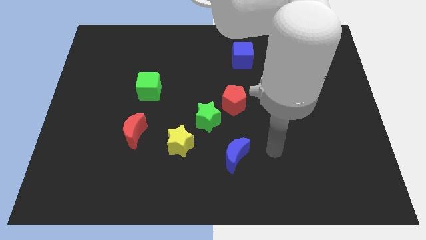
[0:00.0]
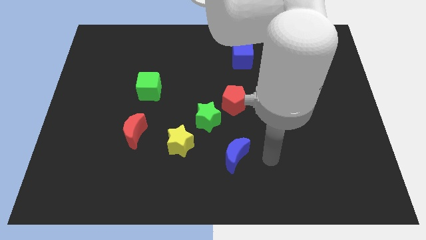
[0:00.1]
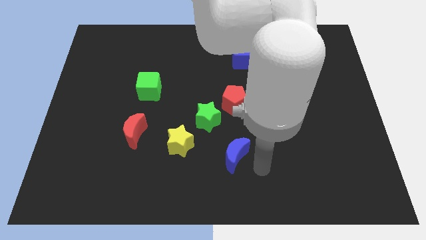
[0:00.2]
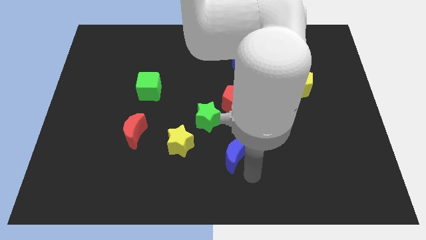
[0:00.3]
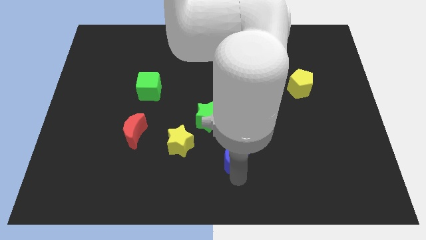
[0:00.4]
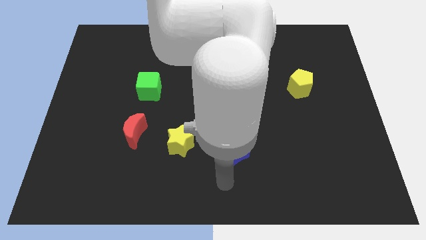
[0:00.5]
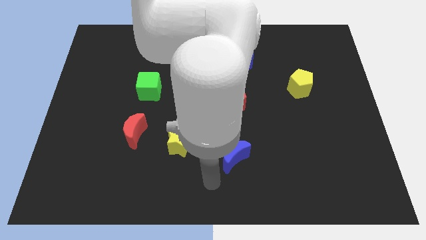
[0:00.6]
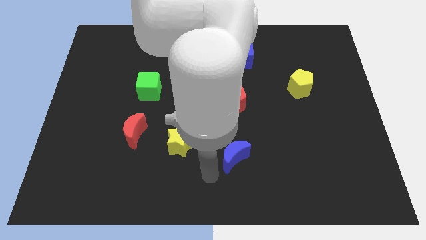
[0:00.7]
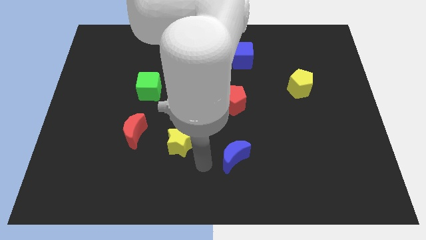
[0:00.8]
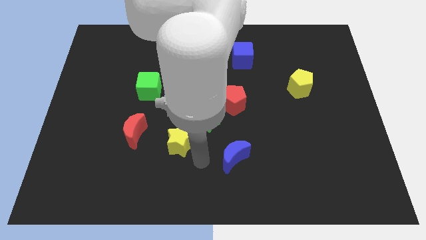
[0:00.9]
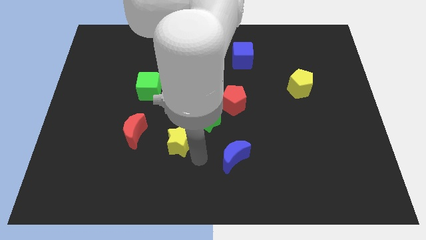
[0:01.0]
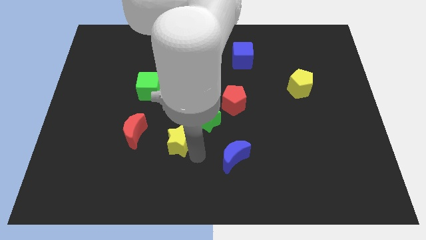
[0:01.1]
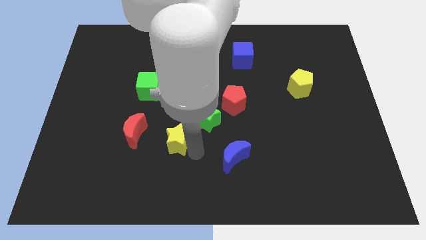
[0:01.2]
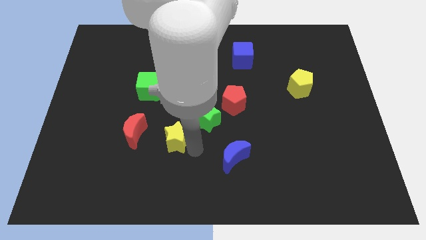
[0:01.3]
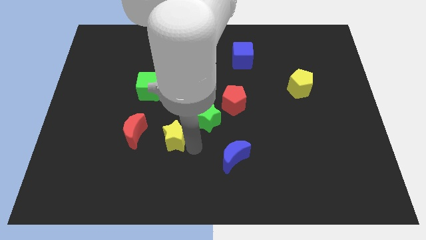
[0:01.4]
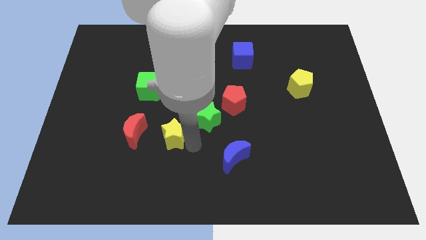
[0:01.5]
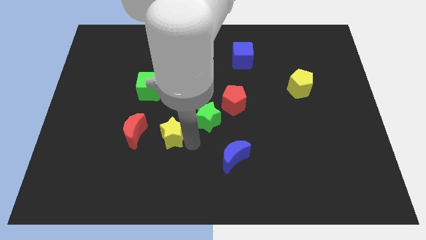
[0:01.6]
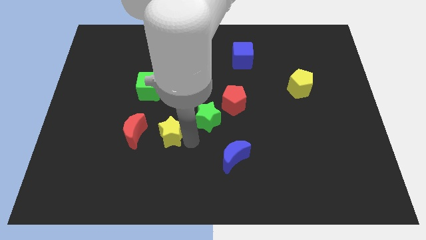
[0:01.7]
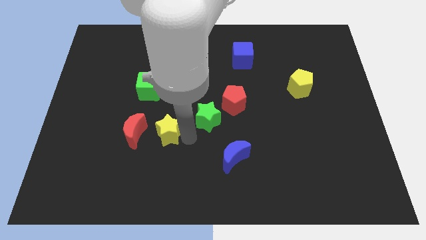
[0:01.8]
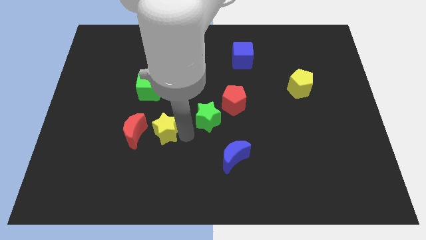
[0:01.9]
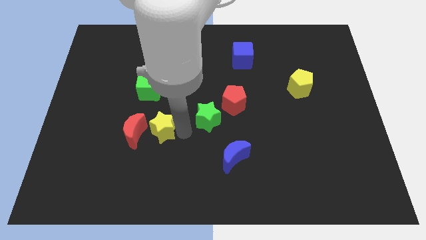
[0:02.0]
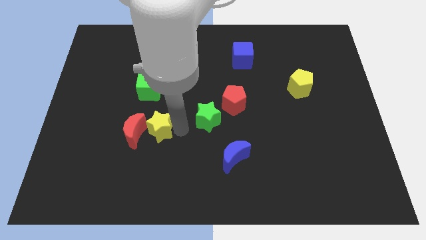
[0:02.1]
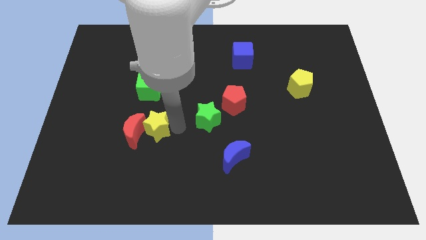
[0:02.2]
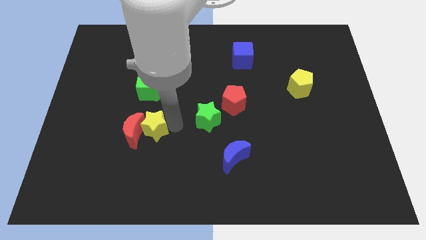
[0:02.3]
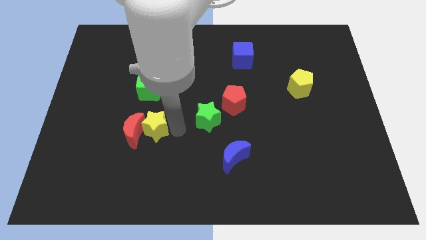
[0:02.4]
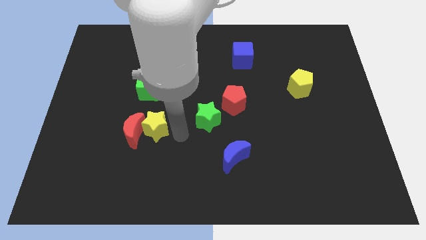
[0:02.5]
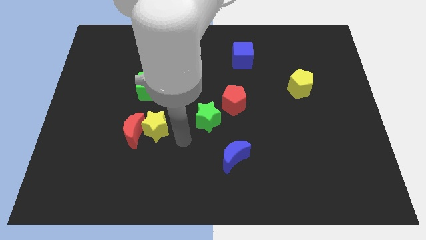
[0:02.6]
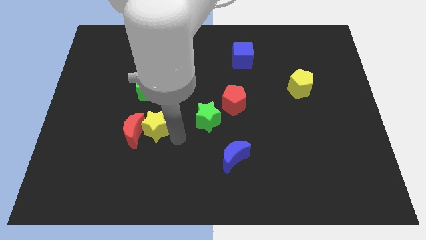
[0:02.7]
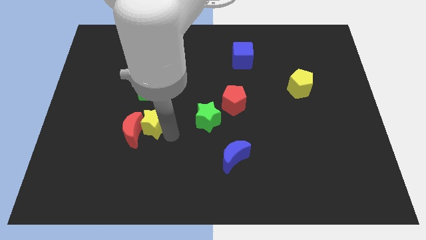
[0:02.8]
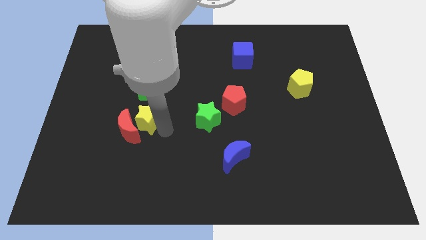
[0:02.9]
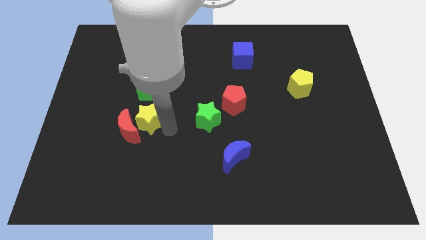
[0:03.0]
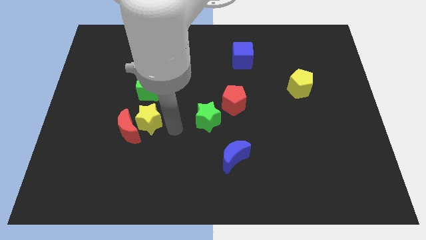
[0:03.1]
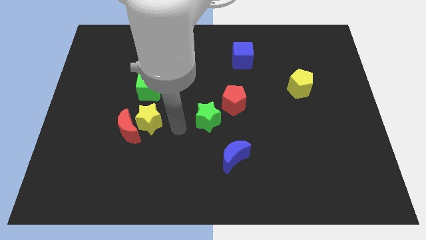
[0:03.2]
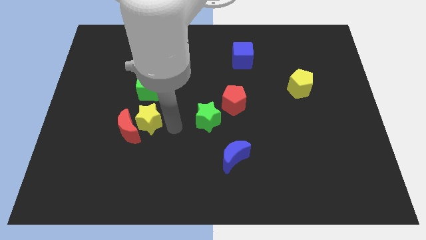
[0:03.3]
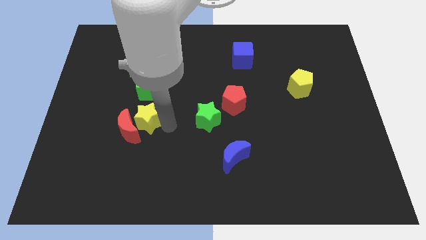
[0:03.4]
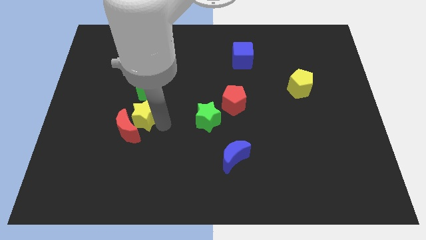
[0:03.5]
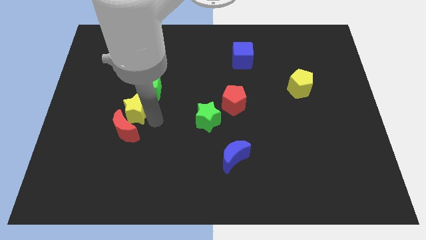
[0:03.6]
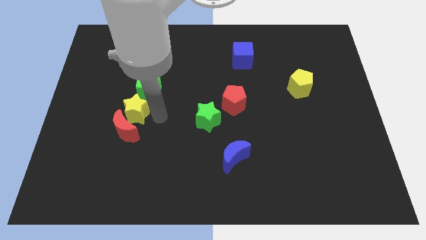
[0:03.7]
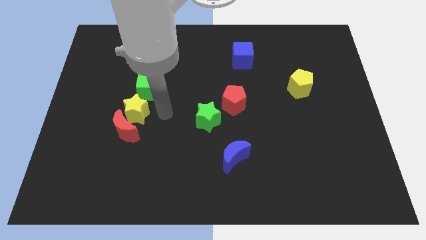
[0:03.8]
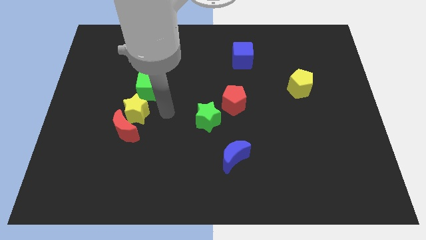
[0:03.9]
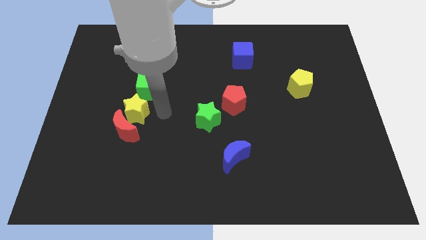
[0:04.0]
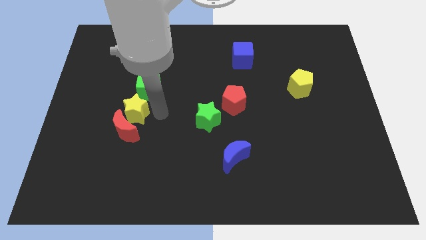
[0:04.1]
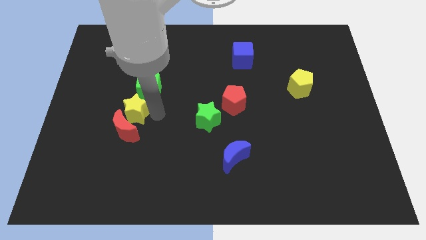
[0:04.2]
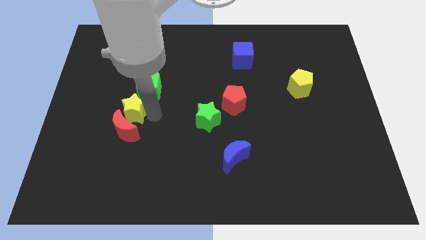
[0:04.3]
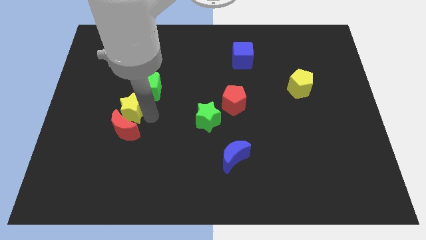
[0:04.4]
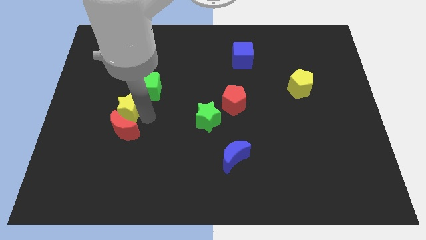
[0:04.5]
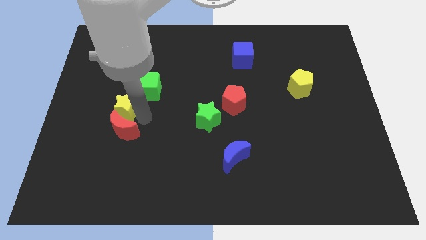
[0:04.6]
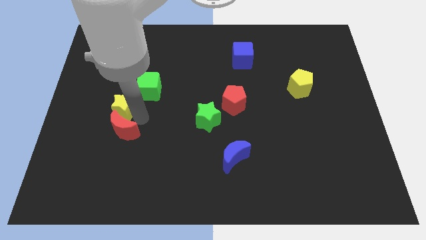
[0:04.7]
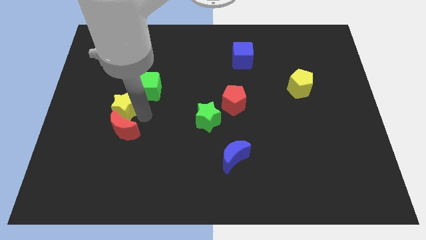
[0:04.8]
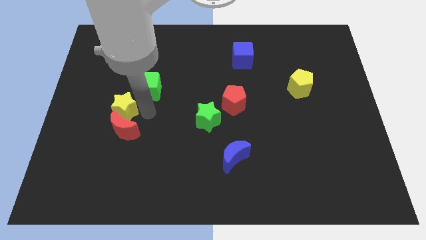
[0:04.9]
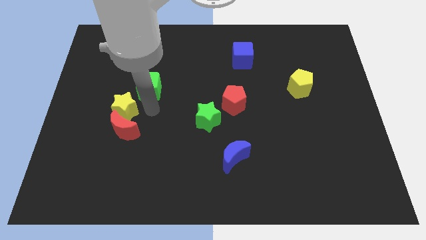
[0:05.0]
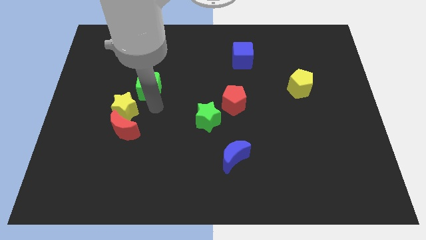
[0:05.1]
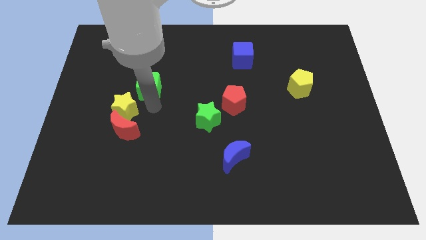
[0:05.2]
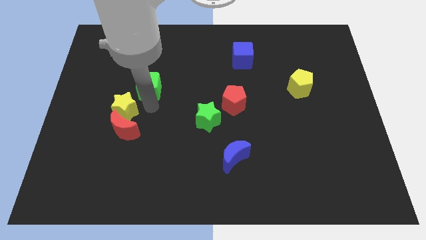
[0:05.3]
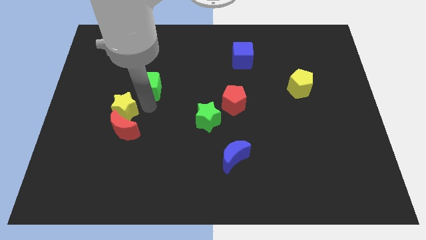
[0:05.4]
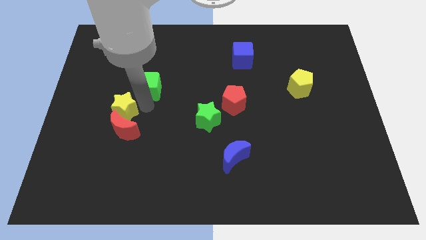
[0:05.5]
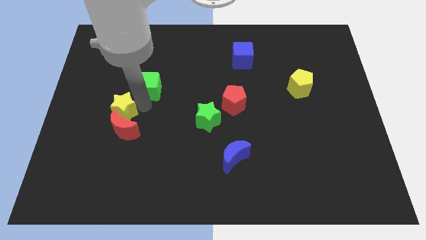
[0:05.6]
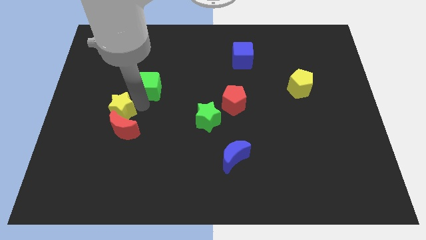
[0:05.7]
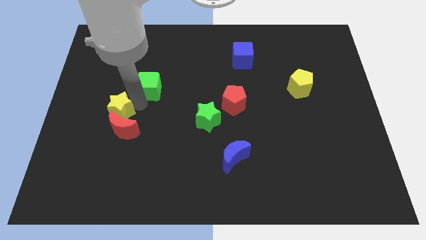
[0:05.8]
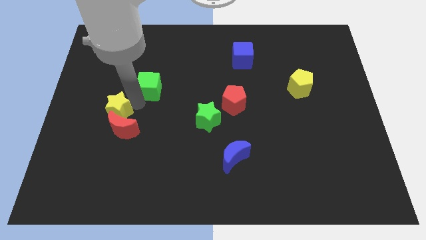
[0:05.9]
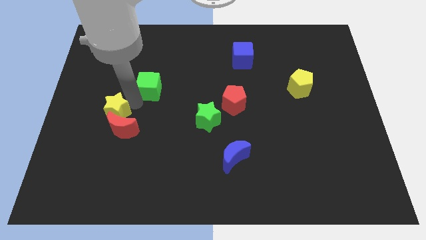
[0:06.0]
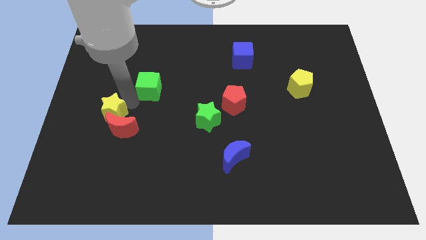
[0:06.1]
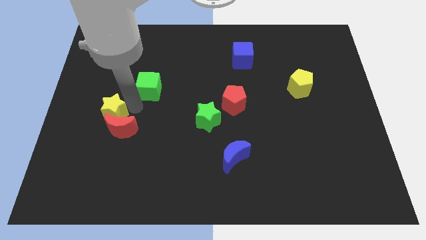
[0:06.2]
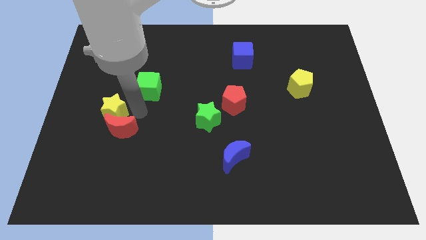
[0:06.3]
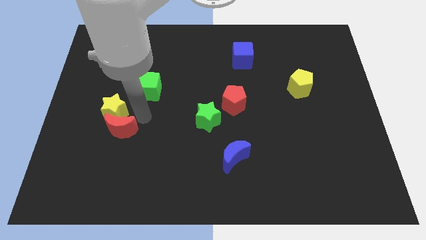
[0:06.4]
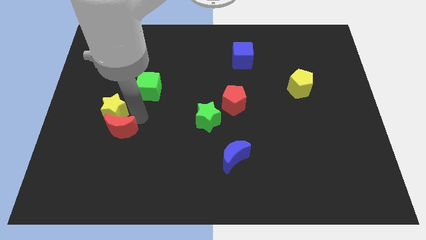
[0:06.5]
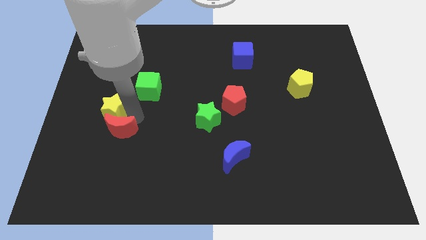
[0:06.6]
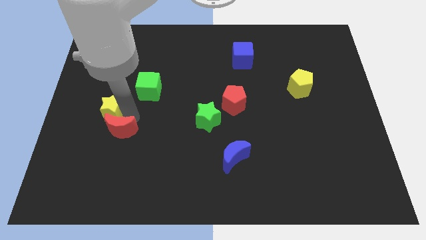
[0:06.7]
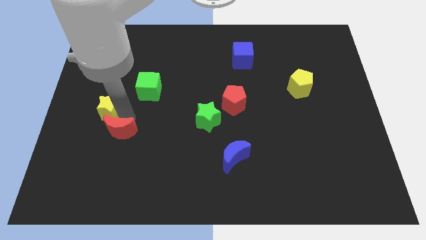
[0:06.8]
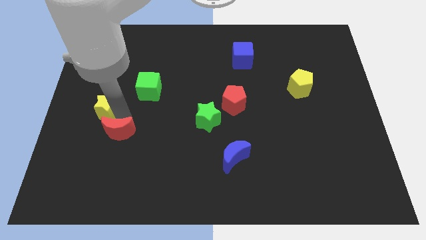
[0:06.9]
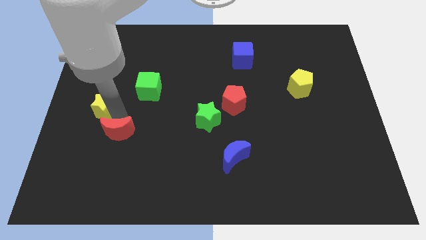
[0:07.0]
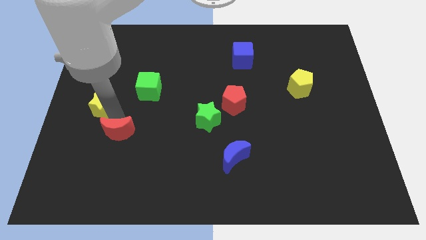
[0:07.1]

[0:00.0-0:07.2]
slide the yellow star to the center left

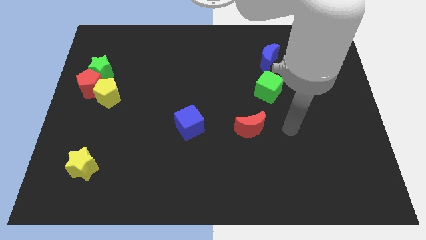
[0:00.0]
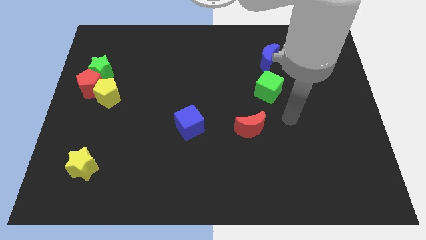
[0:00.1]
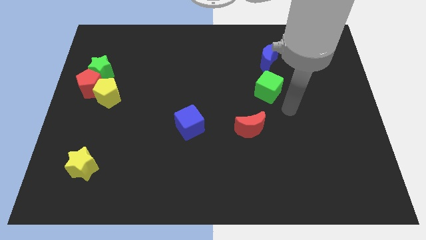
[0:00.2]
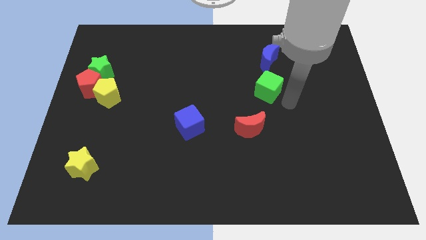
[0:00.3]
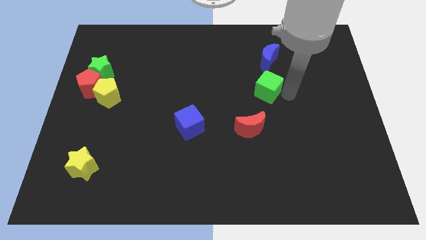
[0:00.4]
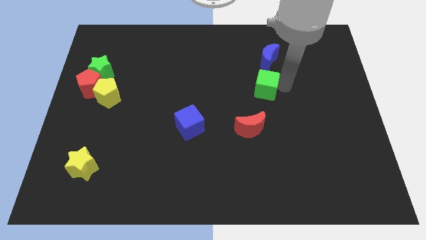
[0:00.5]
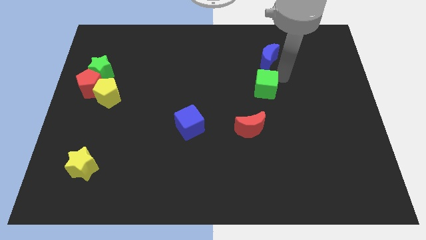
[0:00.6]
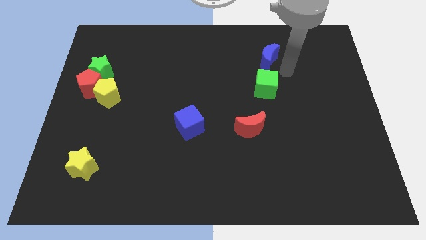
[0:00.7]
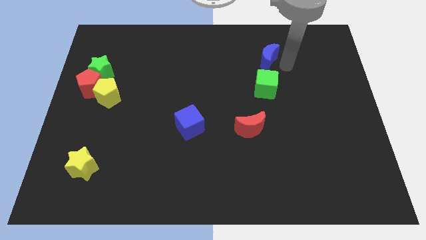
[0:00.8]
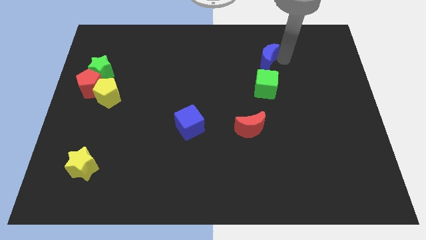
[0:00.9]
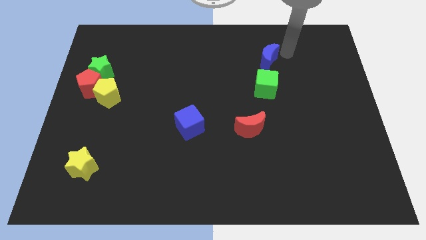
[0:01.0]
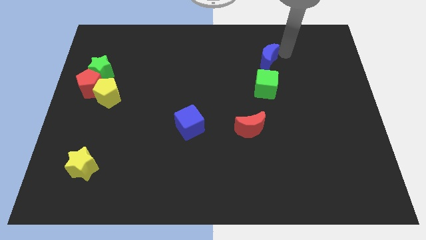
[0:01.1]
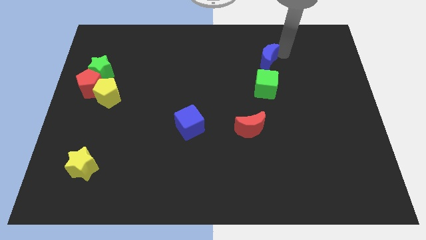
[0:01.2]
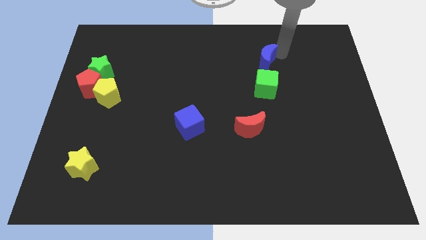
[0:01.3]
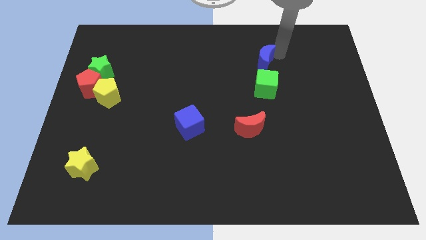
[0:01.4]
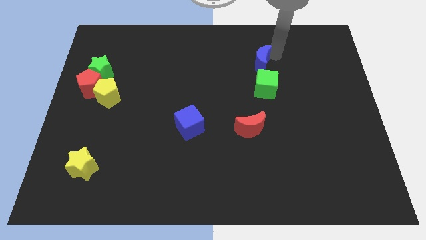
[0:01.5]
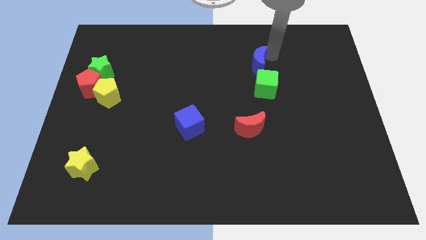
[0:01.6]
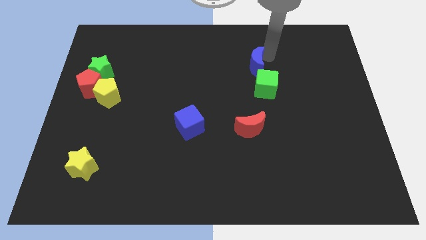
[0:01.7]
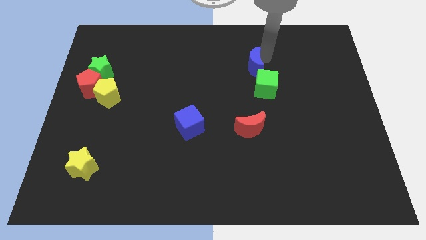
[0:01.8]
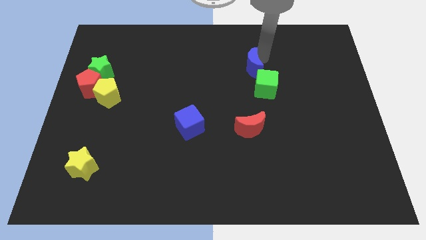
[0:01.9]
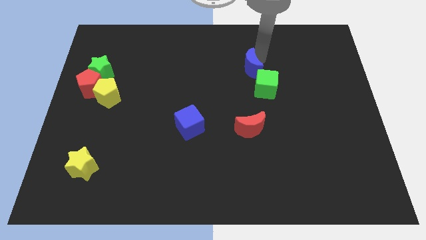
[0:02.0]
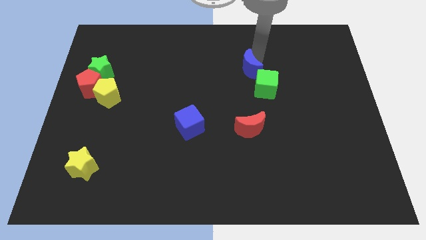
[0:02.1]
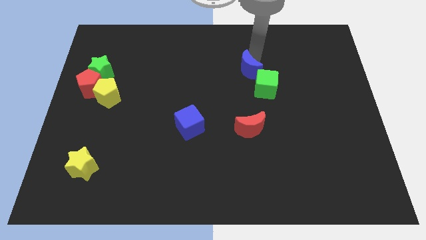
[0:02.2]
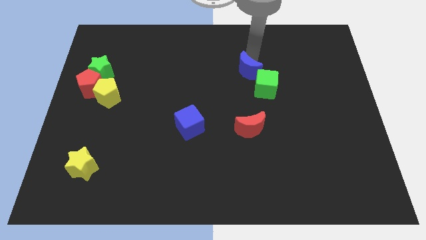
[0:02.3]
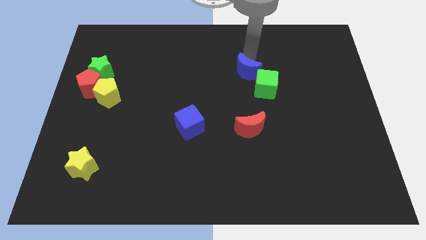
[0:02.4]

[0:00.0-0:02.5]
put the blue moon to the center of the board
